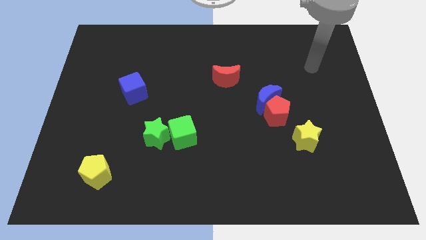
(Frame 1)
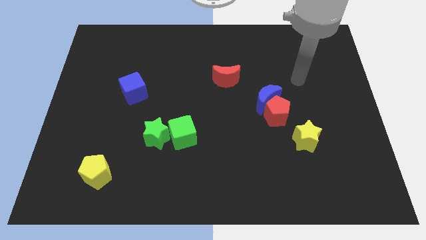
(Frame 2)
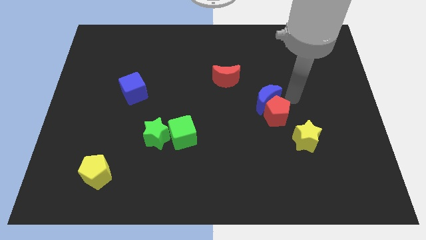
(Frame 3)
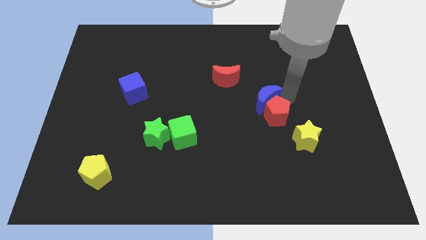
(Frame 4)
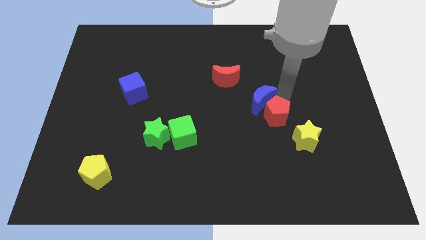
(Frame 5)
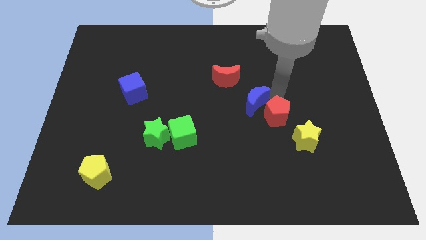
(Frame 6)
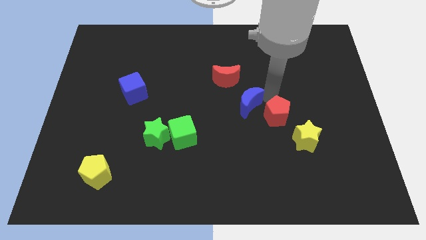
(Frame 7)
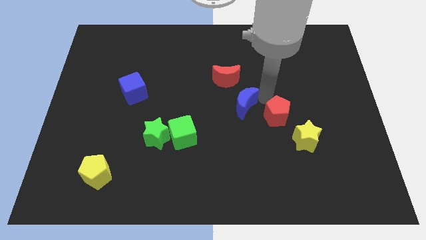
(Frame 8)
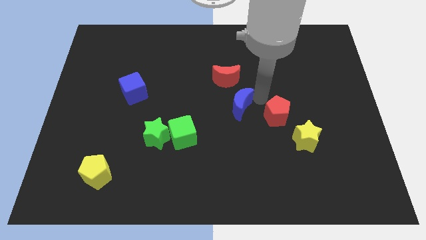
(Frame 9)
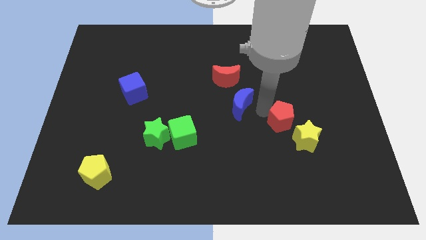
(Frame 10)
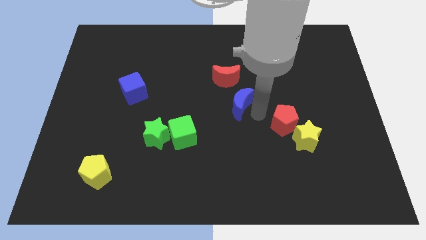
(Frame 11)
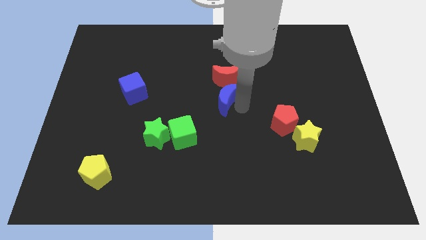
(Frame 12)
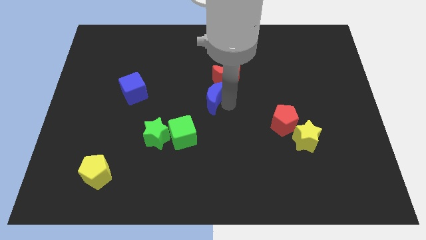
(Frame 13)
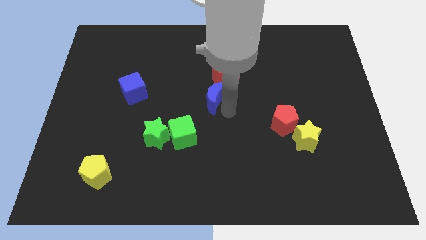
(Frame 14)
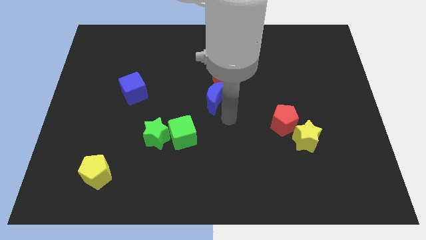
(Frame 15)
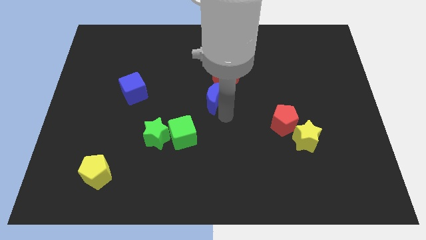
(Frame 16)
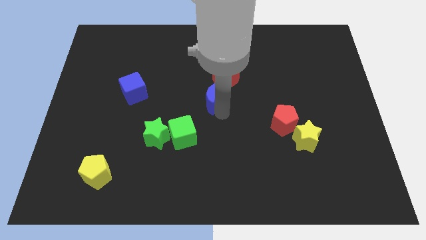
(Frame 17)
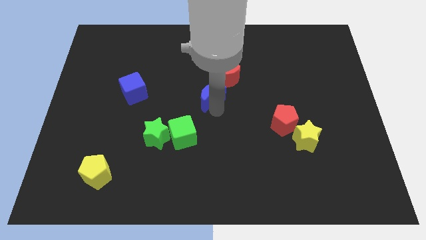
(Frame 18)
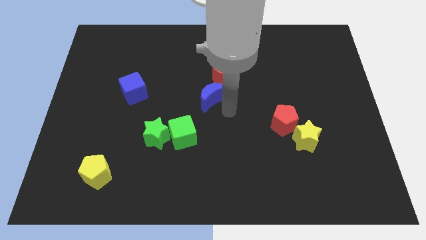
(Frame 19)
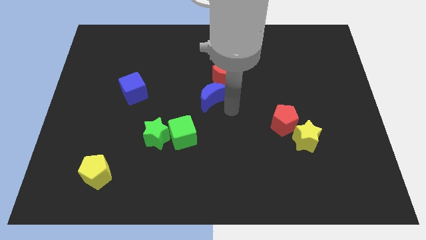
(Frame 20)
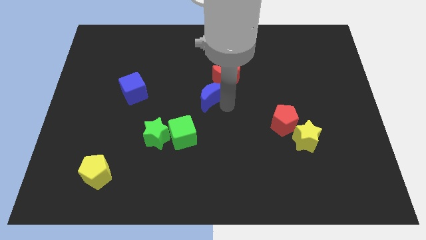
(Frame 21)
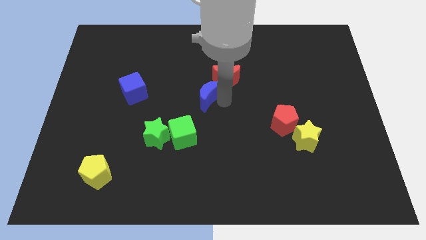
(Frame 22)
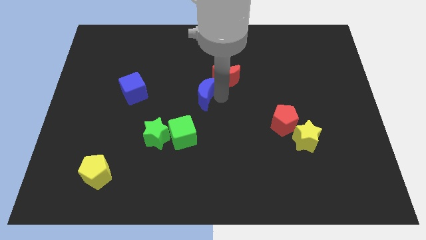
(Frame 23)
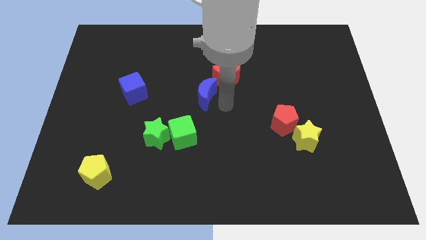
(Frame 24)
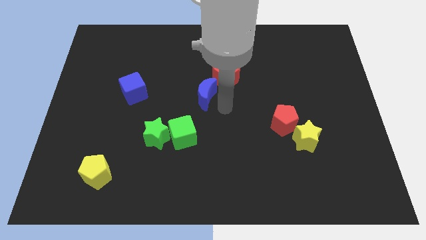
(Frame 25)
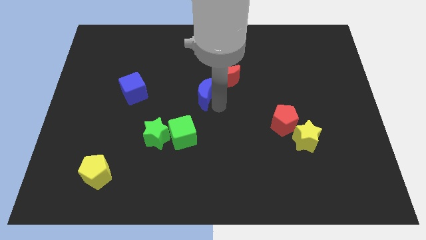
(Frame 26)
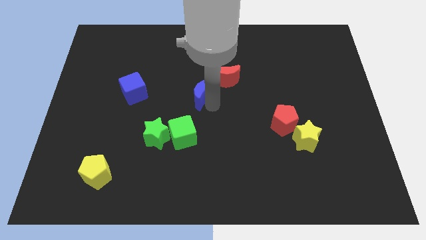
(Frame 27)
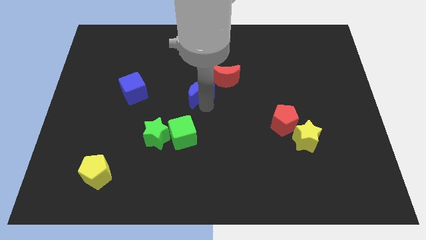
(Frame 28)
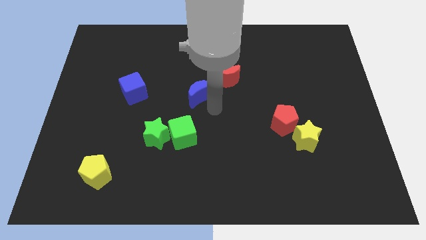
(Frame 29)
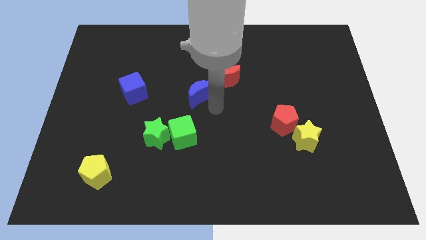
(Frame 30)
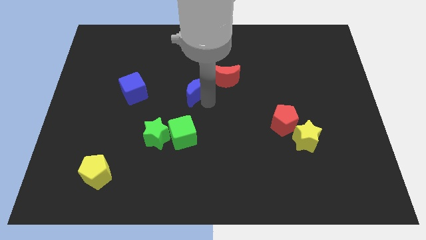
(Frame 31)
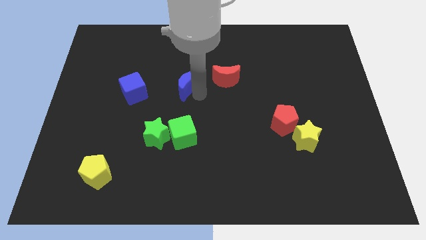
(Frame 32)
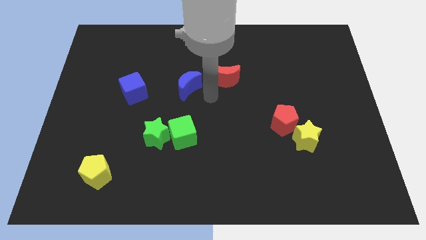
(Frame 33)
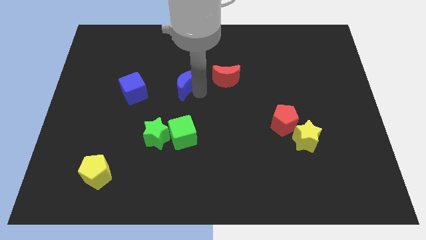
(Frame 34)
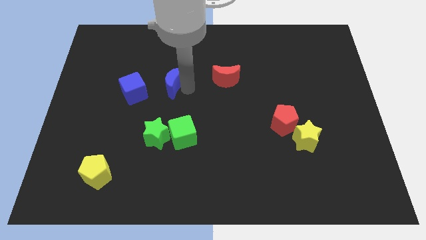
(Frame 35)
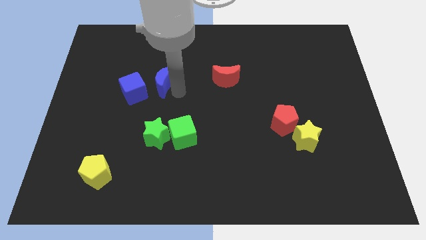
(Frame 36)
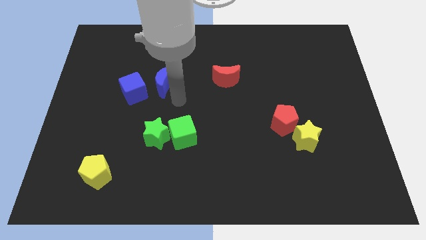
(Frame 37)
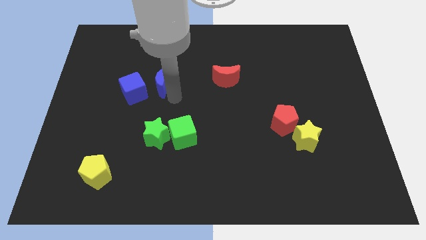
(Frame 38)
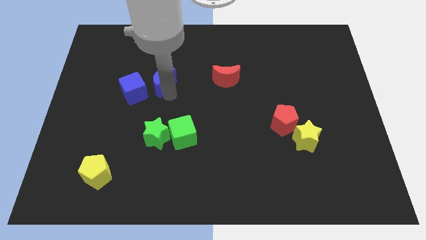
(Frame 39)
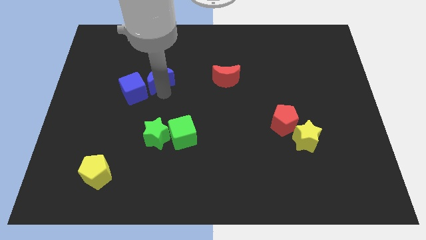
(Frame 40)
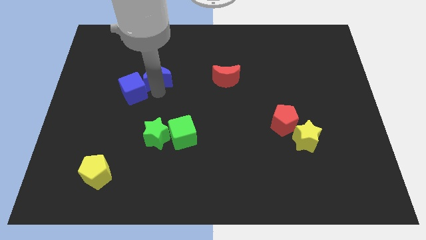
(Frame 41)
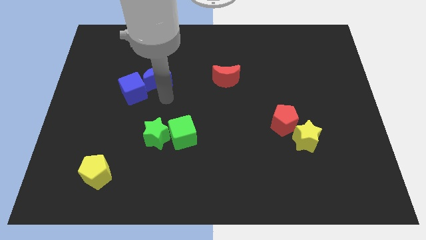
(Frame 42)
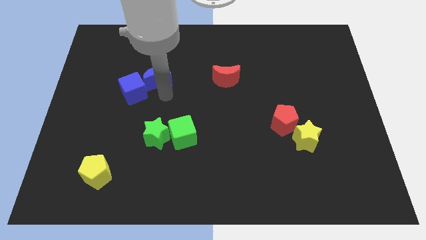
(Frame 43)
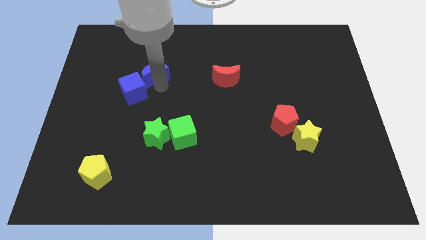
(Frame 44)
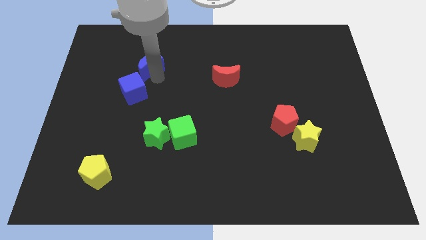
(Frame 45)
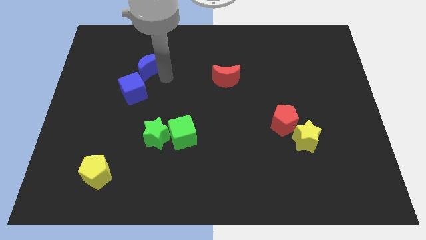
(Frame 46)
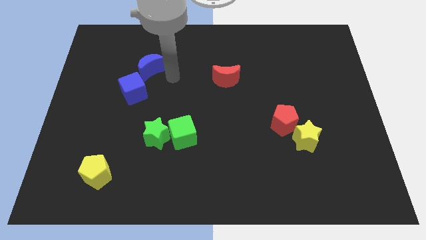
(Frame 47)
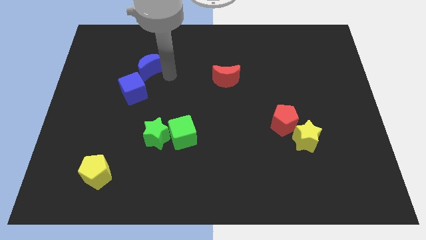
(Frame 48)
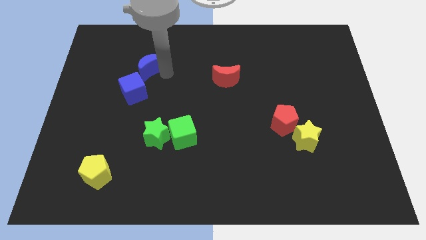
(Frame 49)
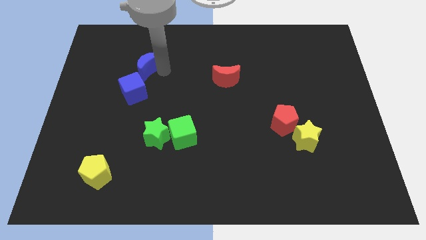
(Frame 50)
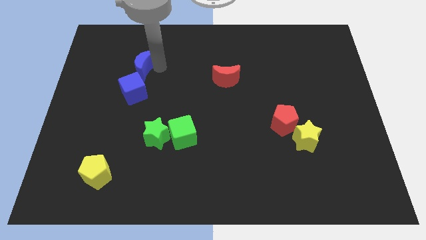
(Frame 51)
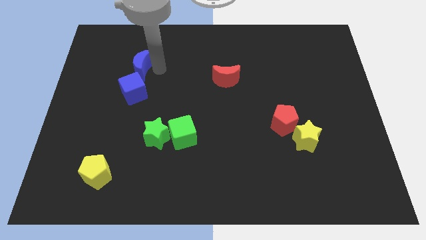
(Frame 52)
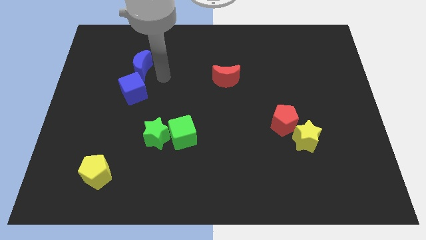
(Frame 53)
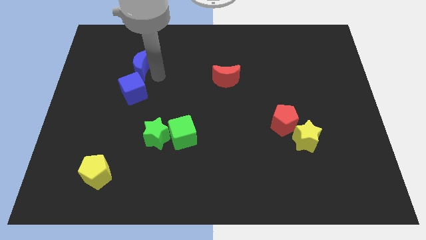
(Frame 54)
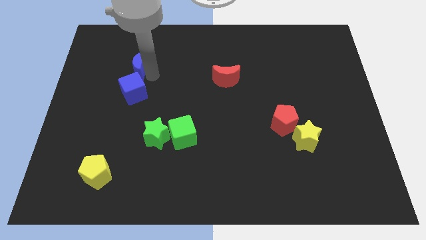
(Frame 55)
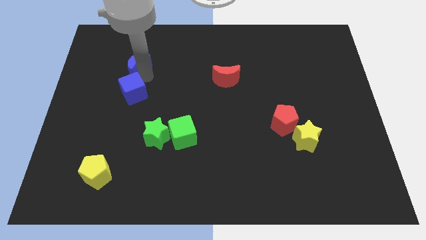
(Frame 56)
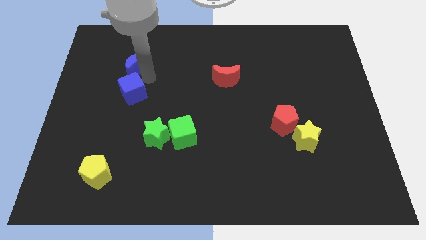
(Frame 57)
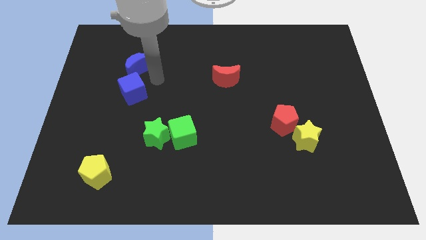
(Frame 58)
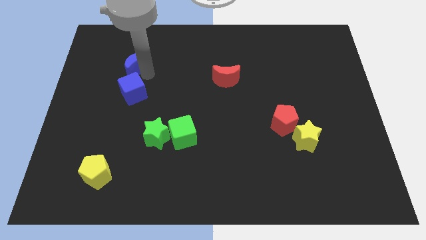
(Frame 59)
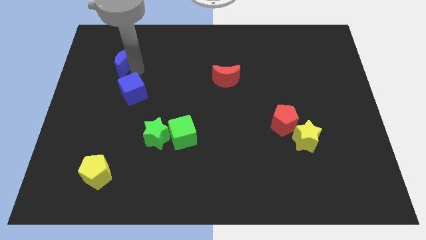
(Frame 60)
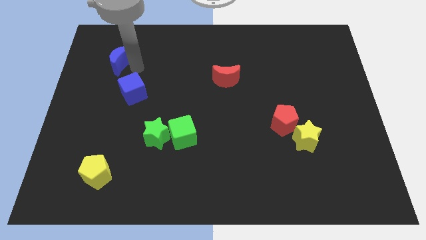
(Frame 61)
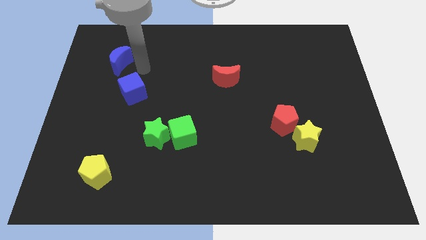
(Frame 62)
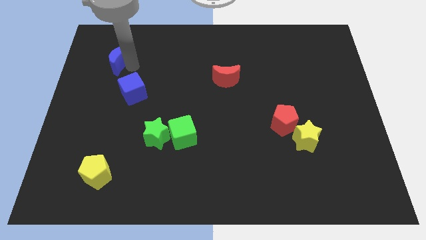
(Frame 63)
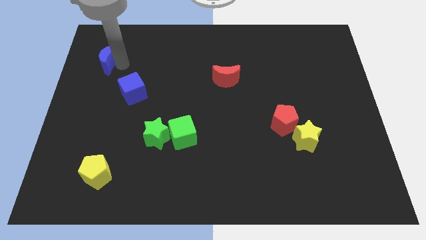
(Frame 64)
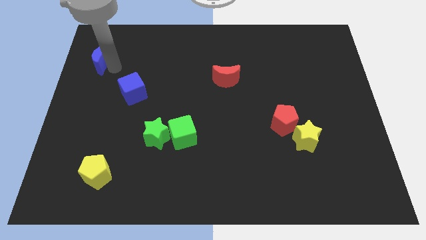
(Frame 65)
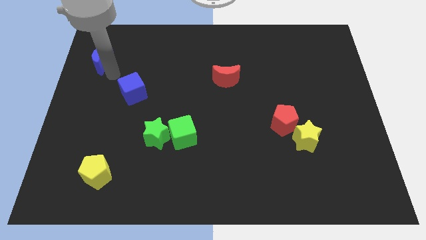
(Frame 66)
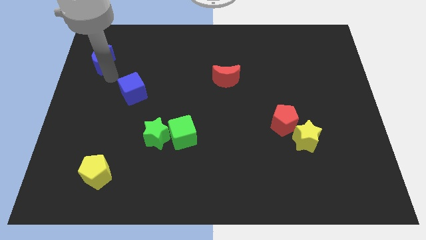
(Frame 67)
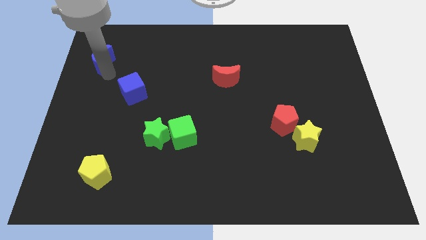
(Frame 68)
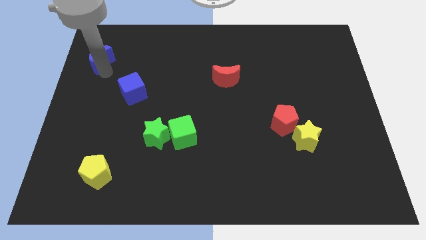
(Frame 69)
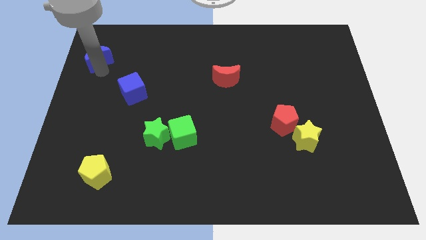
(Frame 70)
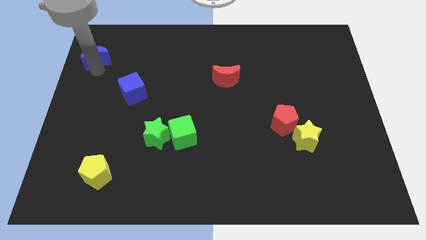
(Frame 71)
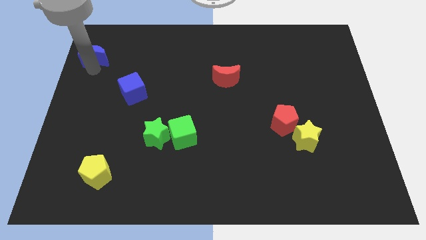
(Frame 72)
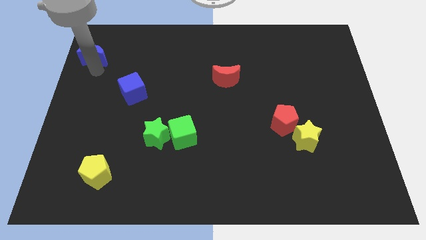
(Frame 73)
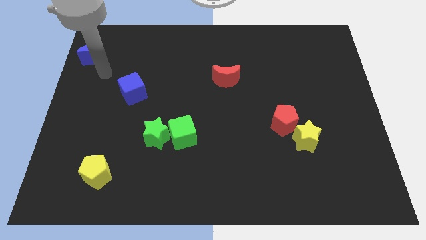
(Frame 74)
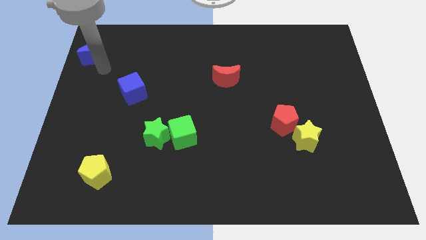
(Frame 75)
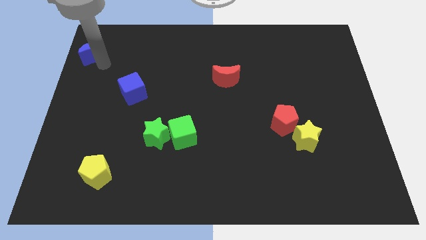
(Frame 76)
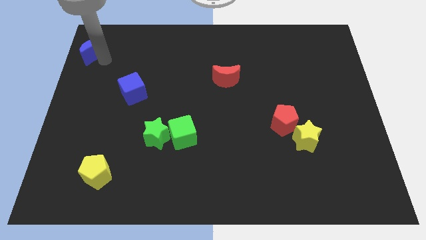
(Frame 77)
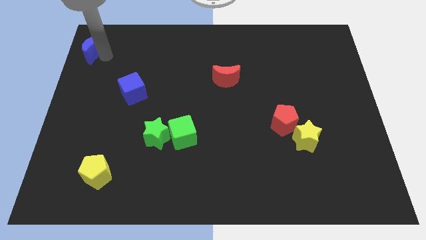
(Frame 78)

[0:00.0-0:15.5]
slide the blue moon to the top left of the board
